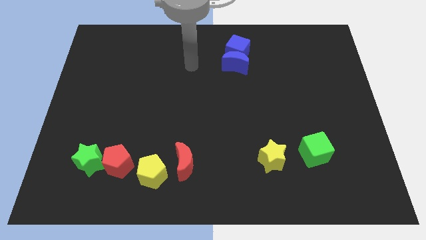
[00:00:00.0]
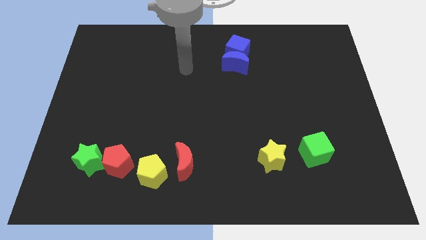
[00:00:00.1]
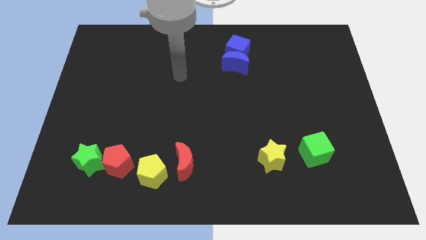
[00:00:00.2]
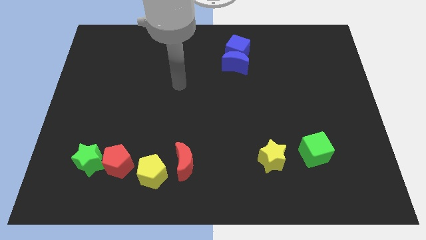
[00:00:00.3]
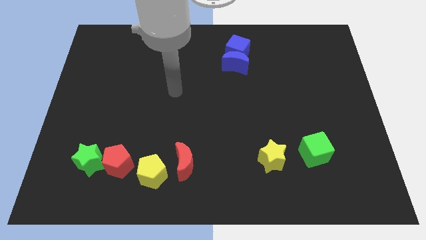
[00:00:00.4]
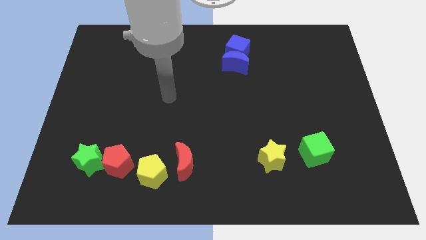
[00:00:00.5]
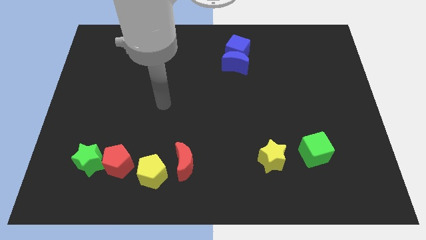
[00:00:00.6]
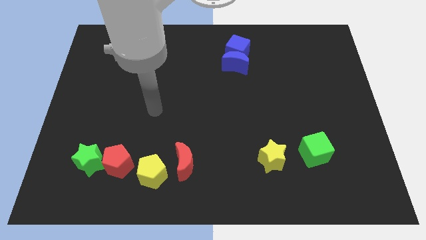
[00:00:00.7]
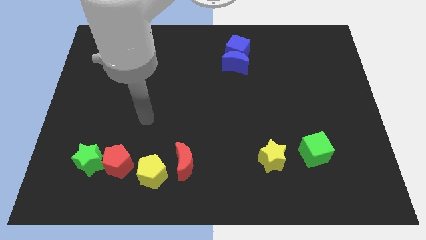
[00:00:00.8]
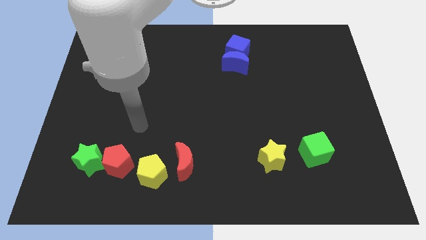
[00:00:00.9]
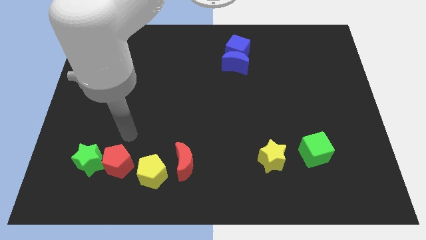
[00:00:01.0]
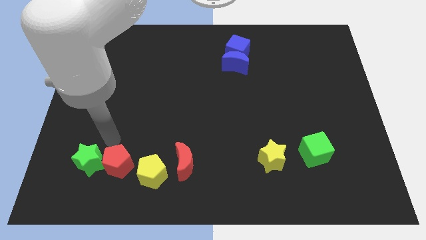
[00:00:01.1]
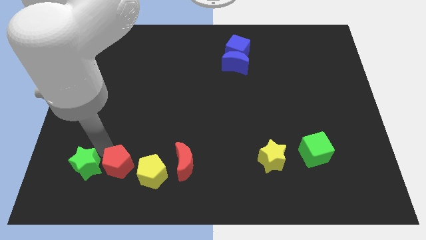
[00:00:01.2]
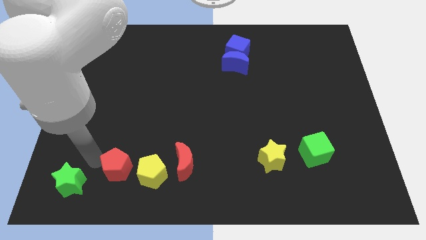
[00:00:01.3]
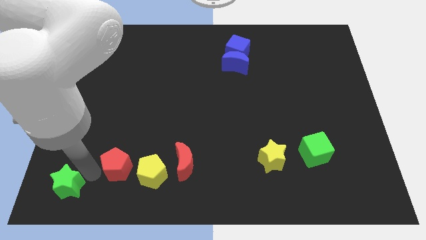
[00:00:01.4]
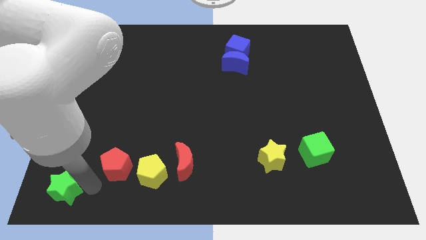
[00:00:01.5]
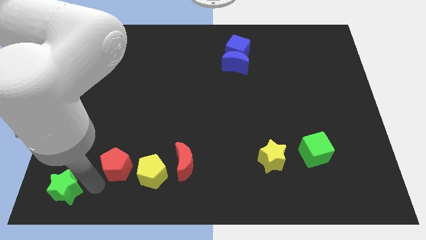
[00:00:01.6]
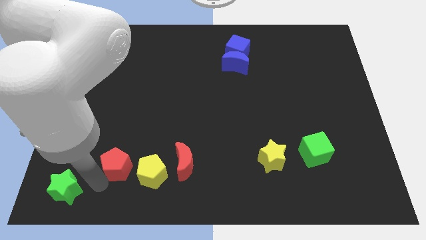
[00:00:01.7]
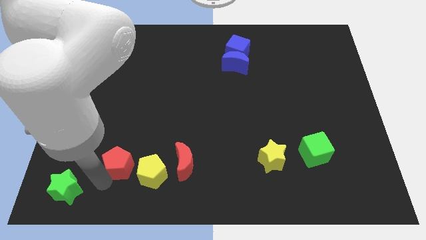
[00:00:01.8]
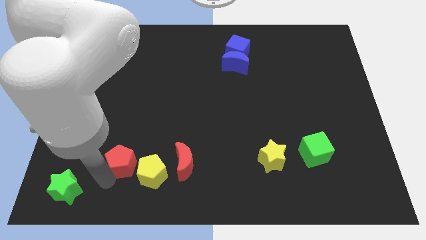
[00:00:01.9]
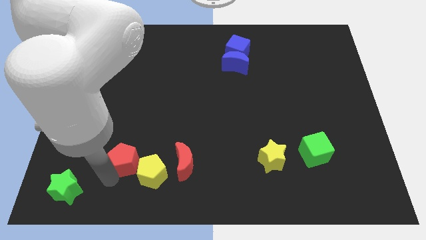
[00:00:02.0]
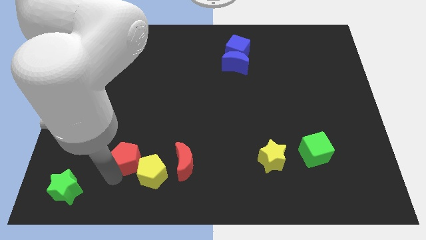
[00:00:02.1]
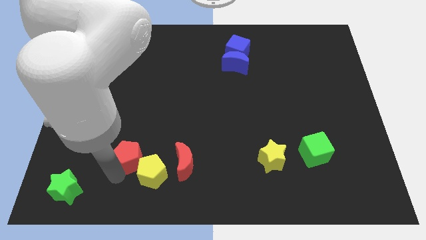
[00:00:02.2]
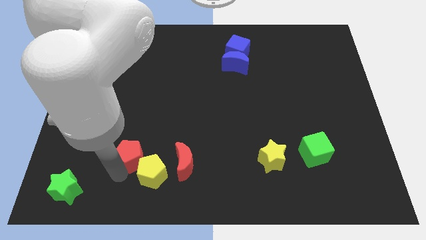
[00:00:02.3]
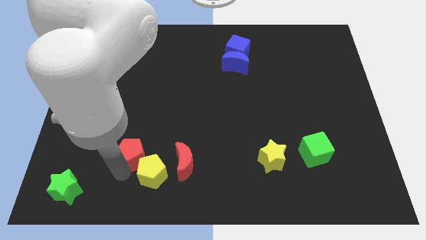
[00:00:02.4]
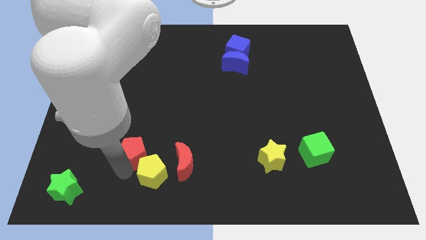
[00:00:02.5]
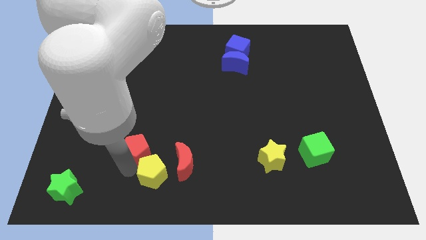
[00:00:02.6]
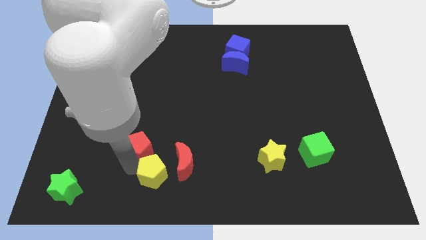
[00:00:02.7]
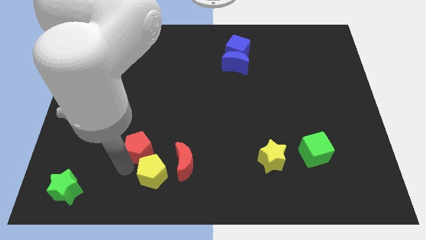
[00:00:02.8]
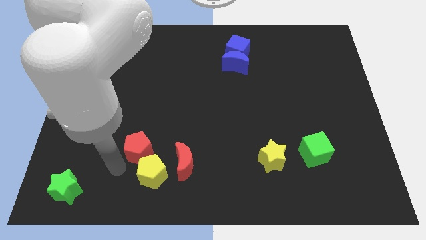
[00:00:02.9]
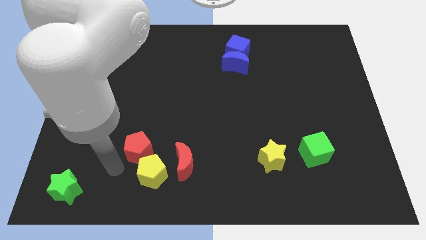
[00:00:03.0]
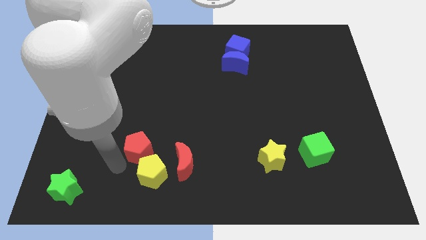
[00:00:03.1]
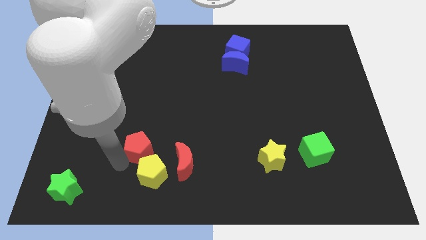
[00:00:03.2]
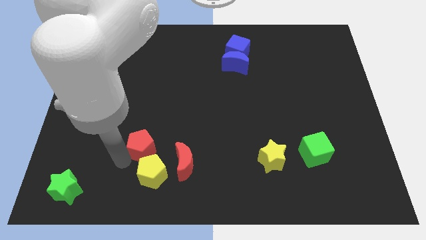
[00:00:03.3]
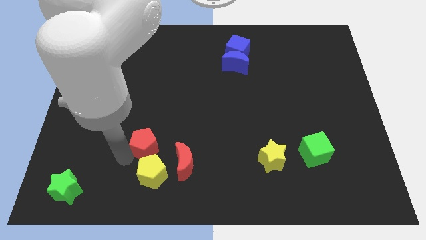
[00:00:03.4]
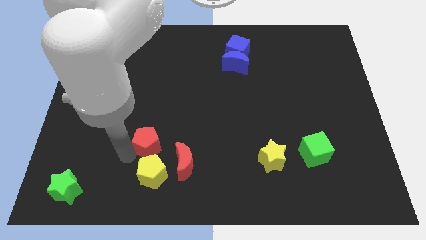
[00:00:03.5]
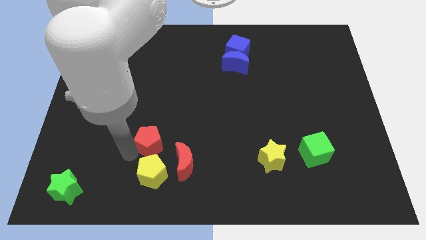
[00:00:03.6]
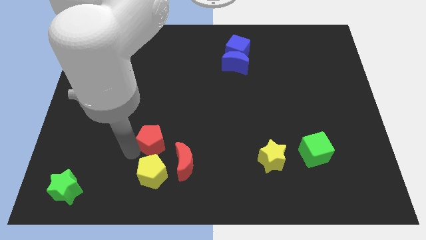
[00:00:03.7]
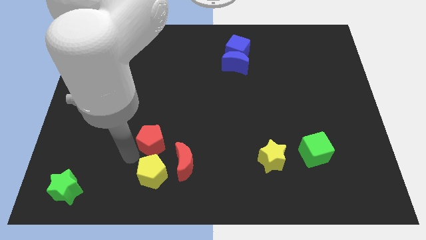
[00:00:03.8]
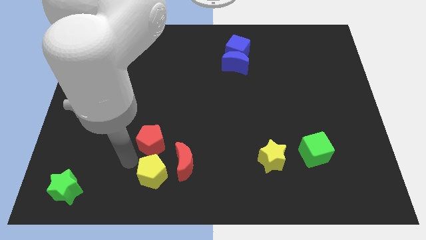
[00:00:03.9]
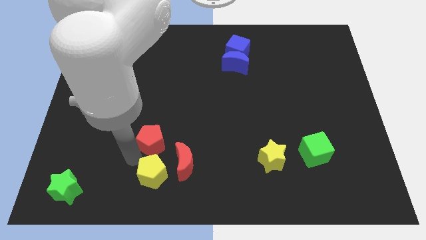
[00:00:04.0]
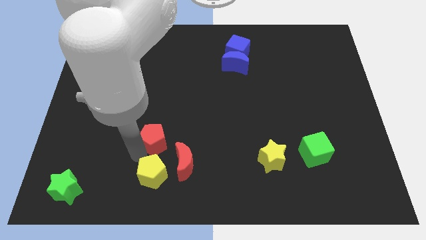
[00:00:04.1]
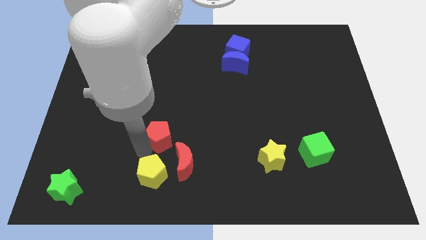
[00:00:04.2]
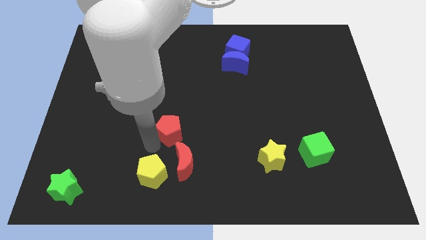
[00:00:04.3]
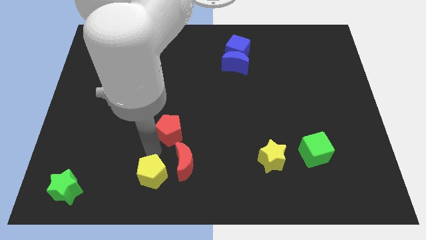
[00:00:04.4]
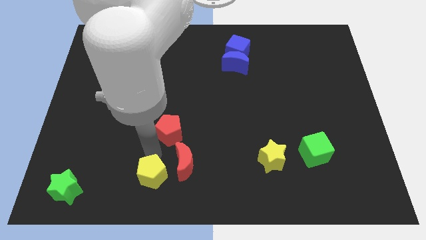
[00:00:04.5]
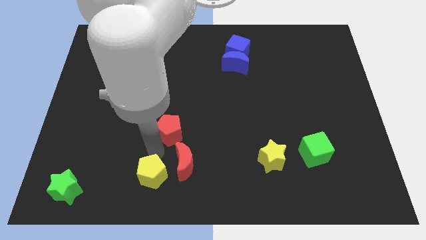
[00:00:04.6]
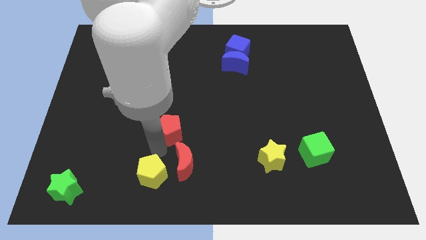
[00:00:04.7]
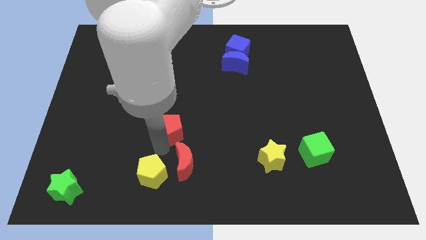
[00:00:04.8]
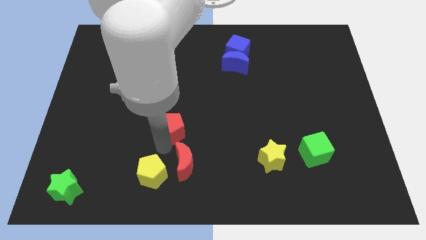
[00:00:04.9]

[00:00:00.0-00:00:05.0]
put the red pentagon to the middle of the board

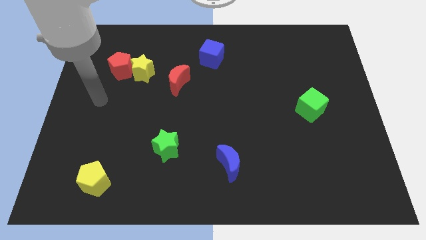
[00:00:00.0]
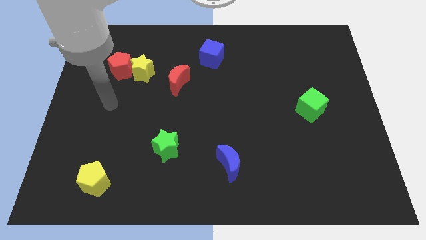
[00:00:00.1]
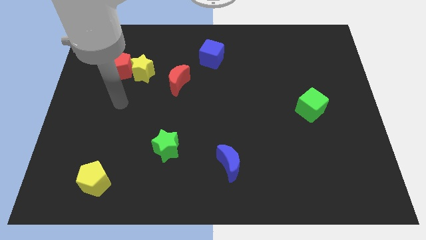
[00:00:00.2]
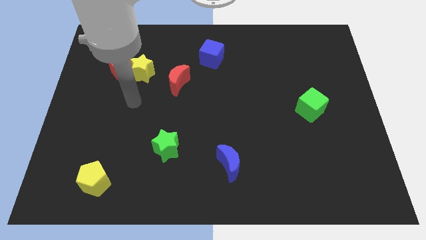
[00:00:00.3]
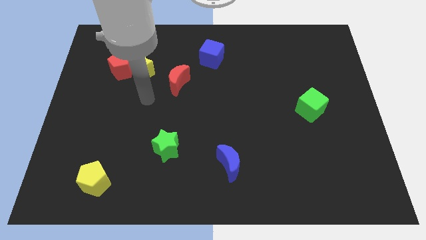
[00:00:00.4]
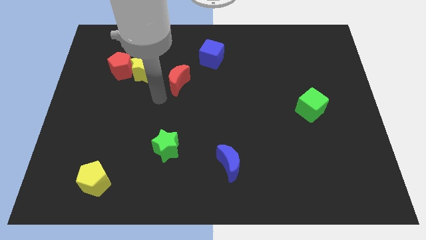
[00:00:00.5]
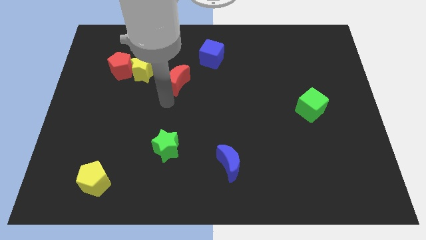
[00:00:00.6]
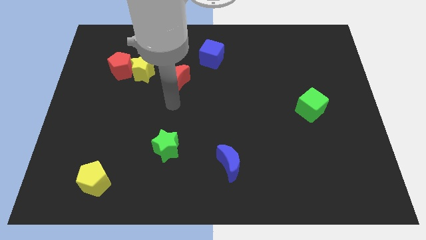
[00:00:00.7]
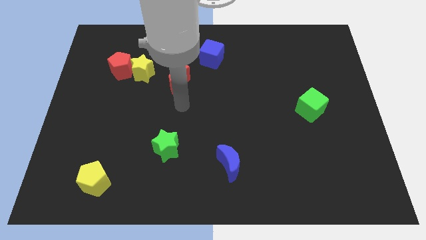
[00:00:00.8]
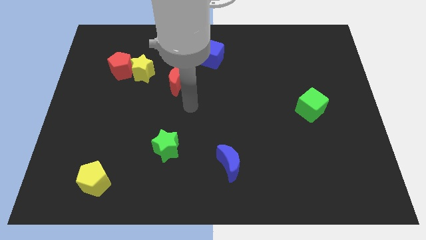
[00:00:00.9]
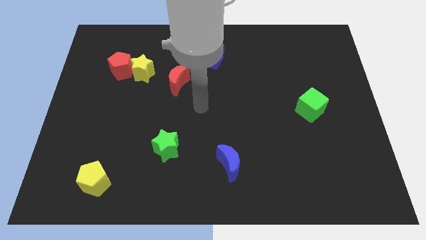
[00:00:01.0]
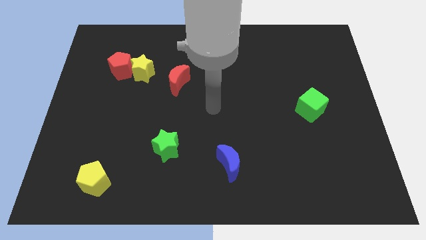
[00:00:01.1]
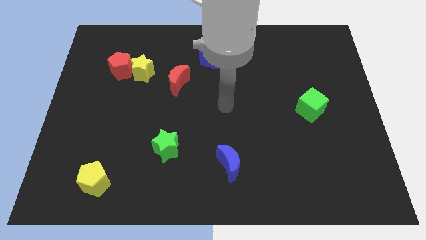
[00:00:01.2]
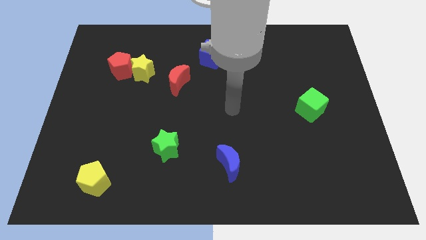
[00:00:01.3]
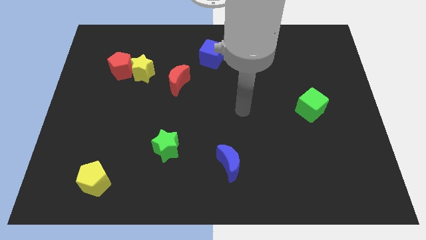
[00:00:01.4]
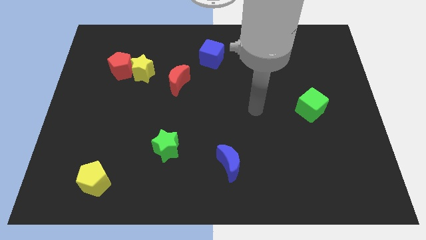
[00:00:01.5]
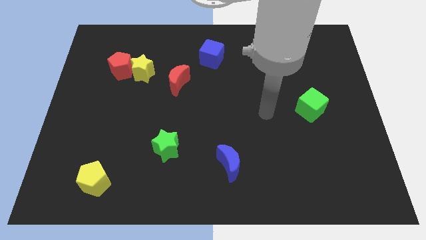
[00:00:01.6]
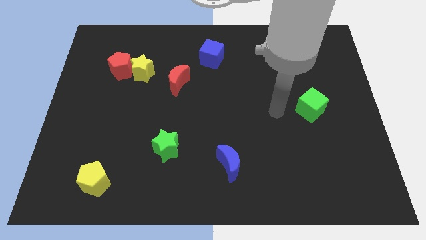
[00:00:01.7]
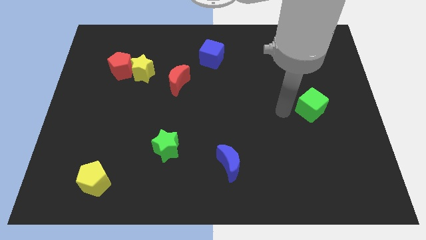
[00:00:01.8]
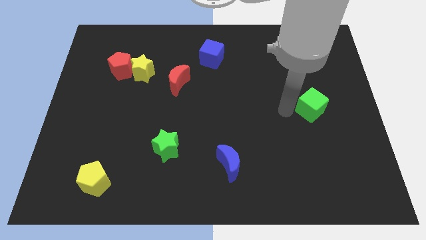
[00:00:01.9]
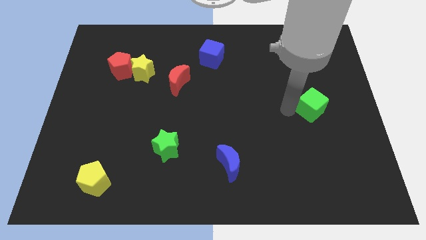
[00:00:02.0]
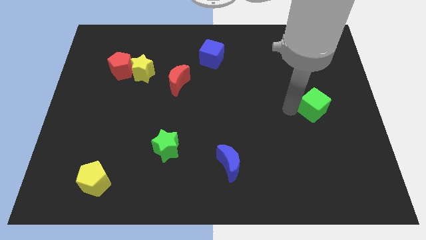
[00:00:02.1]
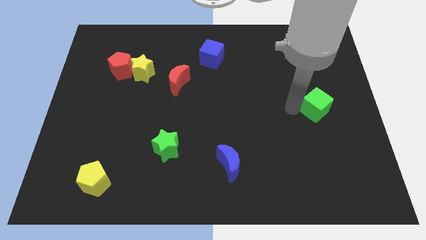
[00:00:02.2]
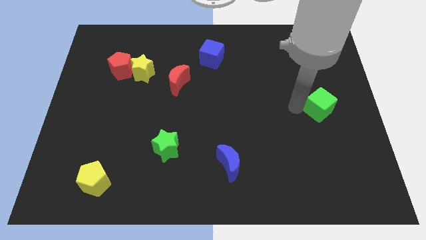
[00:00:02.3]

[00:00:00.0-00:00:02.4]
put the green cube to the right side
